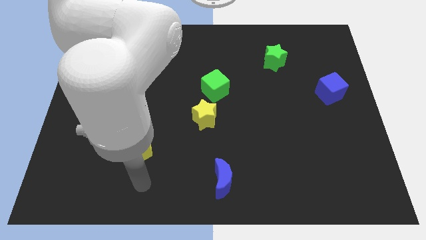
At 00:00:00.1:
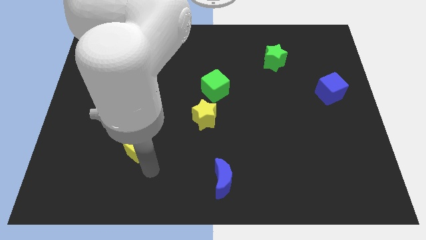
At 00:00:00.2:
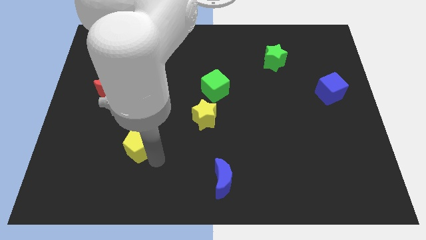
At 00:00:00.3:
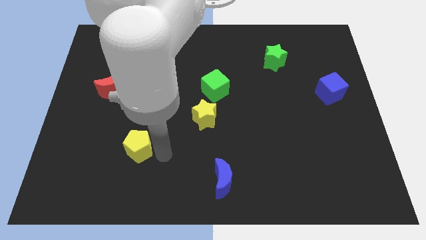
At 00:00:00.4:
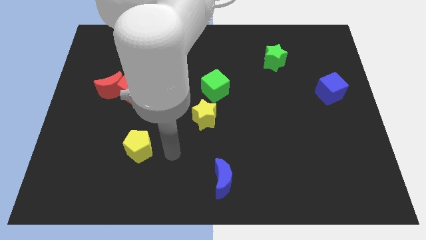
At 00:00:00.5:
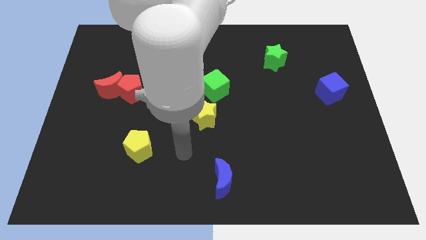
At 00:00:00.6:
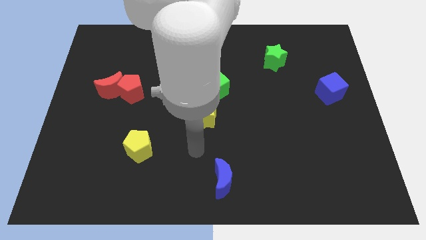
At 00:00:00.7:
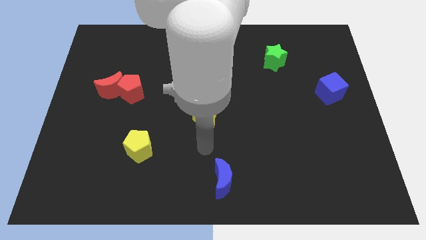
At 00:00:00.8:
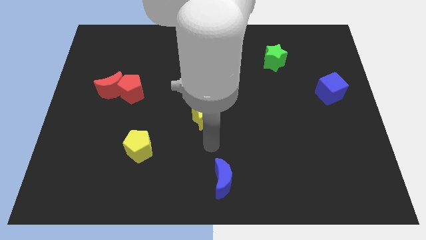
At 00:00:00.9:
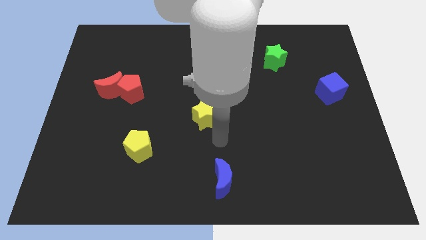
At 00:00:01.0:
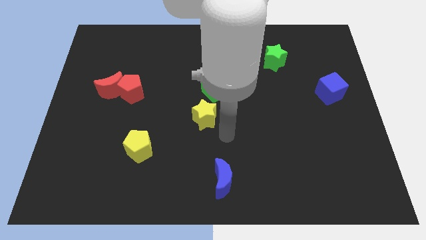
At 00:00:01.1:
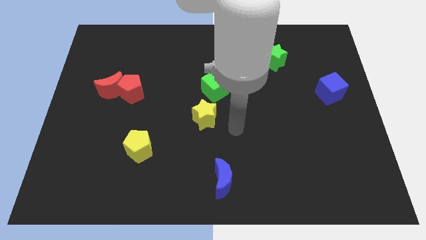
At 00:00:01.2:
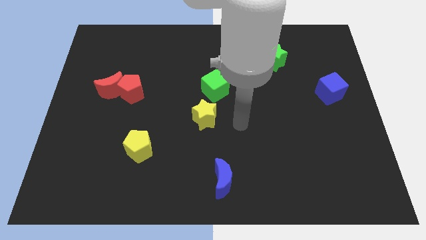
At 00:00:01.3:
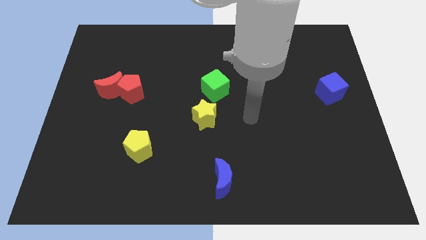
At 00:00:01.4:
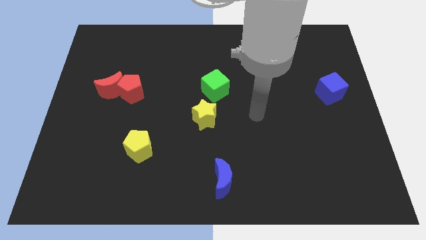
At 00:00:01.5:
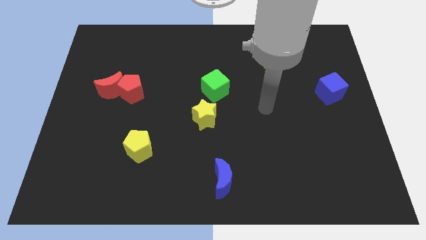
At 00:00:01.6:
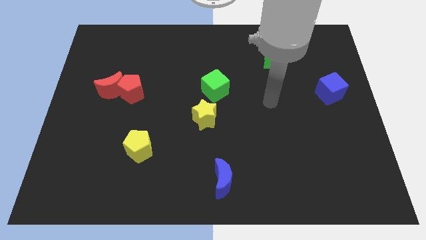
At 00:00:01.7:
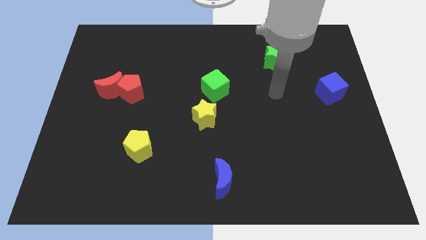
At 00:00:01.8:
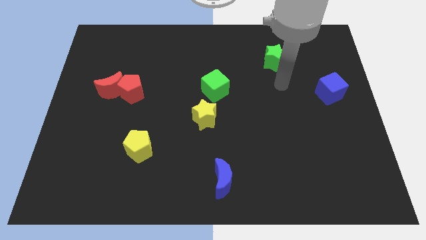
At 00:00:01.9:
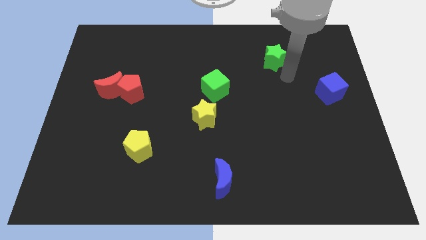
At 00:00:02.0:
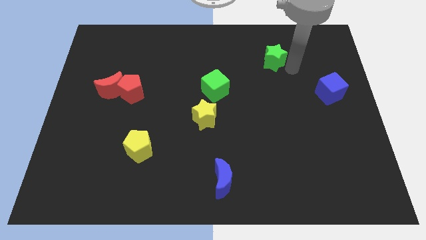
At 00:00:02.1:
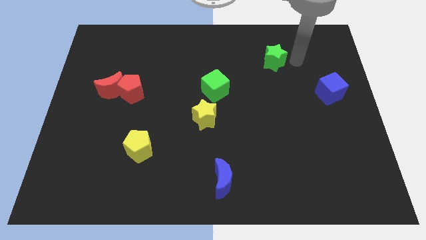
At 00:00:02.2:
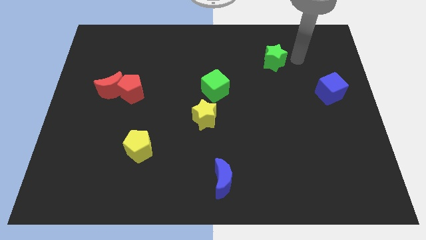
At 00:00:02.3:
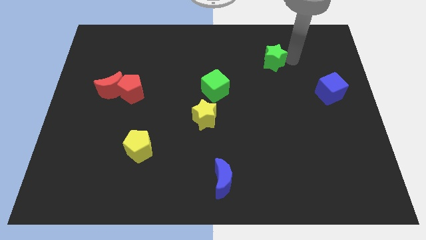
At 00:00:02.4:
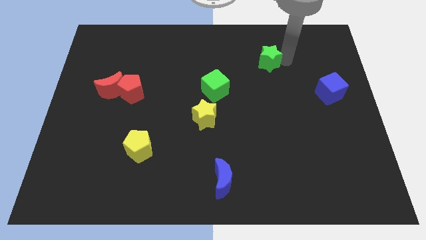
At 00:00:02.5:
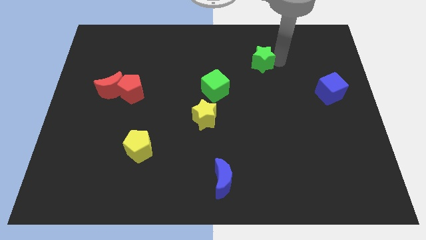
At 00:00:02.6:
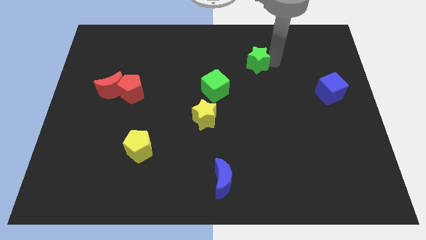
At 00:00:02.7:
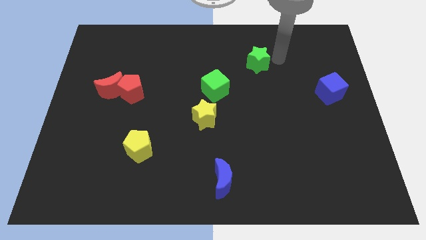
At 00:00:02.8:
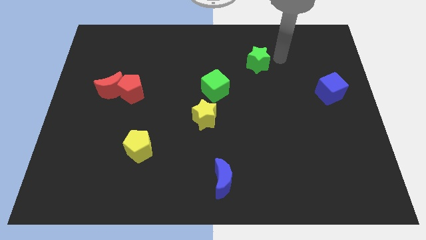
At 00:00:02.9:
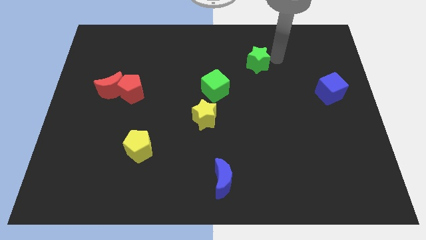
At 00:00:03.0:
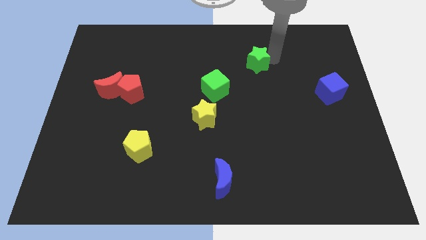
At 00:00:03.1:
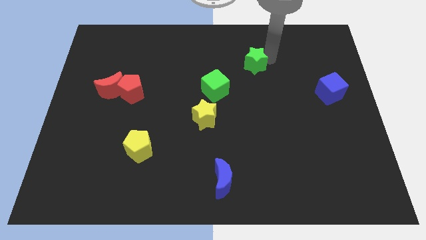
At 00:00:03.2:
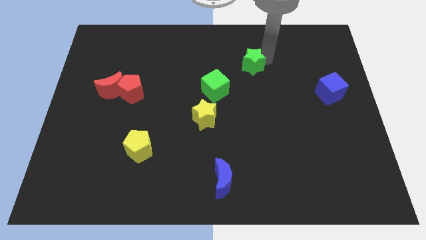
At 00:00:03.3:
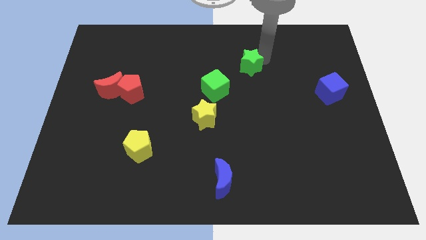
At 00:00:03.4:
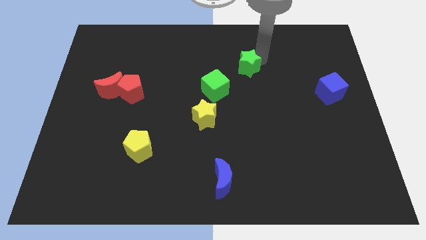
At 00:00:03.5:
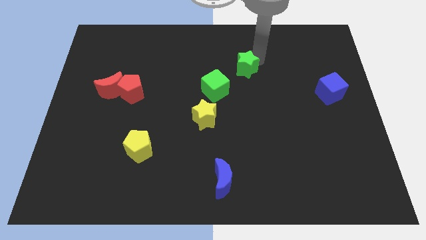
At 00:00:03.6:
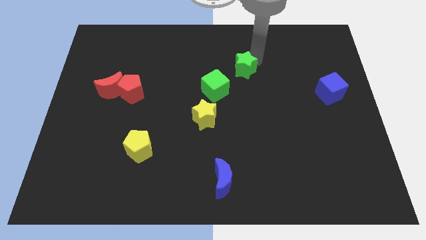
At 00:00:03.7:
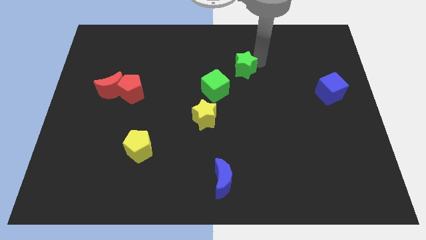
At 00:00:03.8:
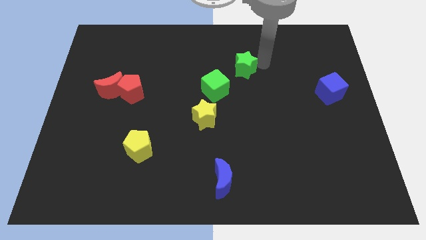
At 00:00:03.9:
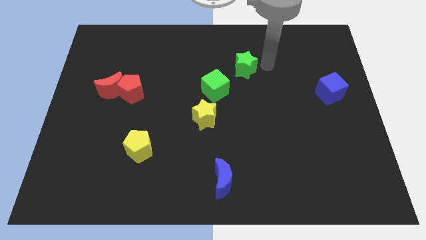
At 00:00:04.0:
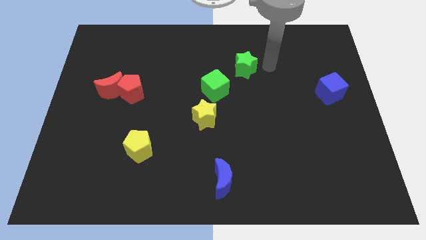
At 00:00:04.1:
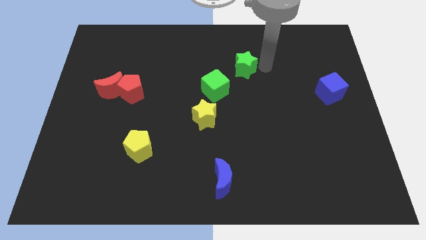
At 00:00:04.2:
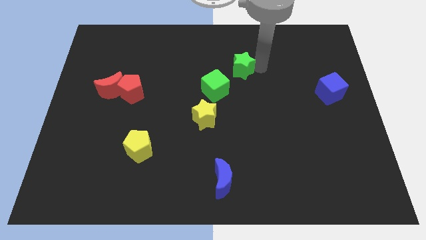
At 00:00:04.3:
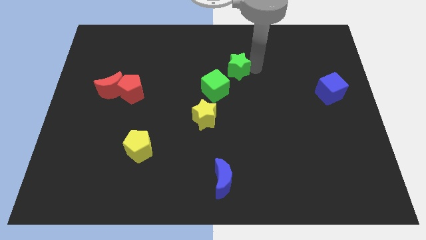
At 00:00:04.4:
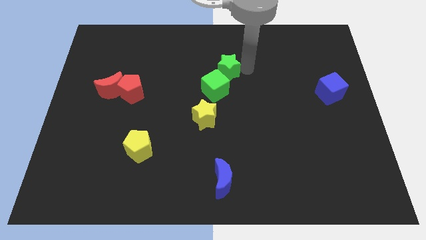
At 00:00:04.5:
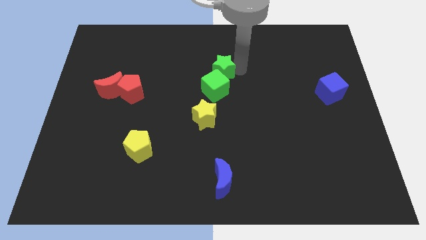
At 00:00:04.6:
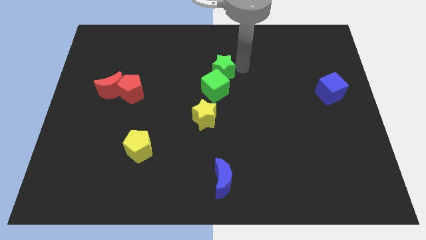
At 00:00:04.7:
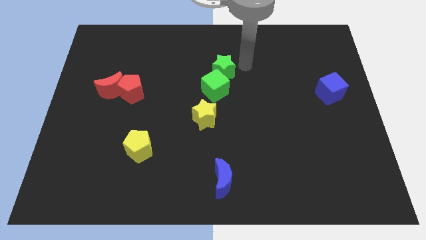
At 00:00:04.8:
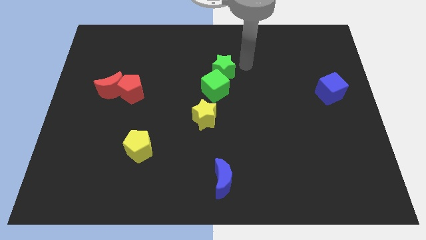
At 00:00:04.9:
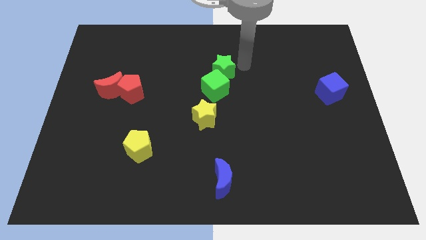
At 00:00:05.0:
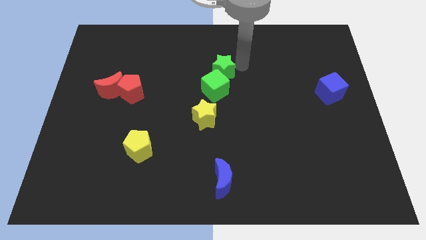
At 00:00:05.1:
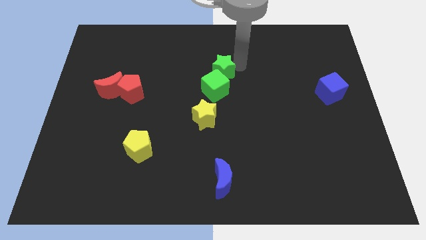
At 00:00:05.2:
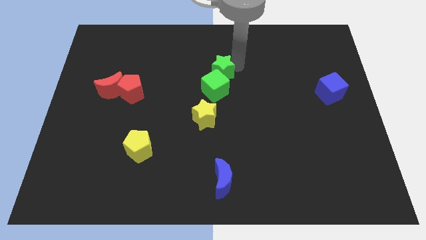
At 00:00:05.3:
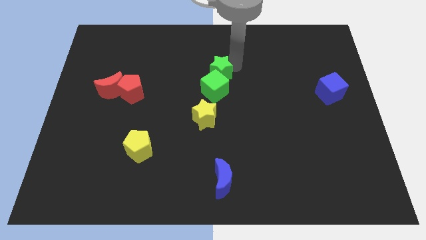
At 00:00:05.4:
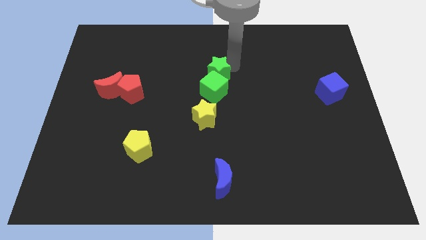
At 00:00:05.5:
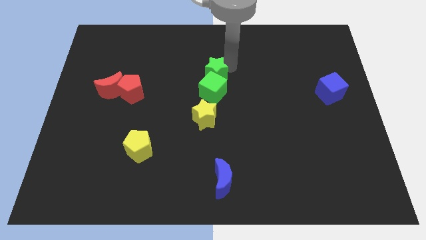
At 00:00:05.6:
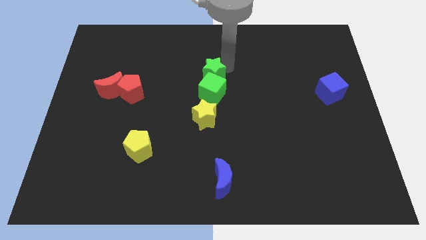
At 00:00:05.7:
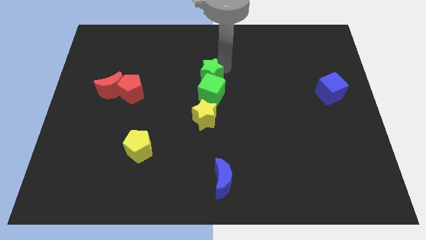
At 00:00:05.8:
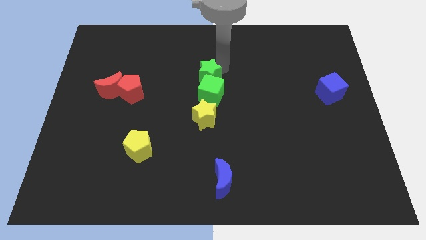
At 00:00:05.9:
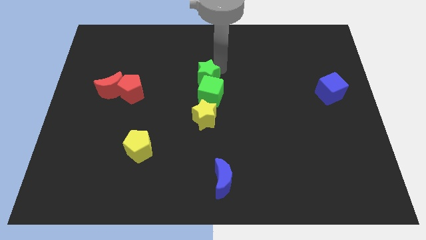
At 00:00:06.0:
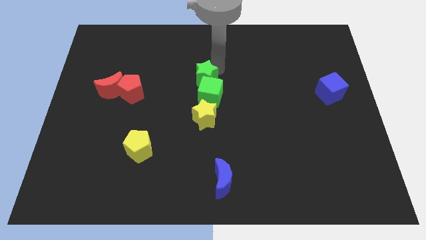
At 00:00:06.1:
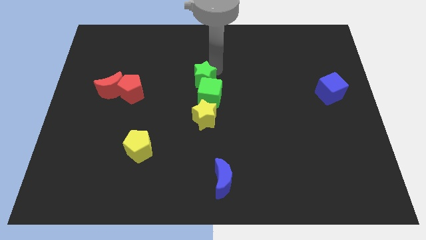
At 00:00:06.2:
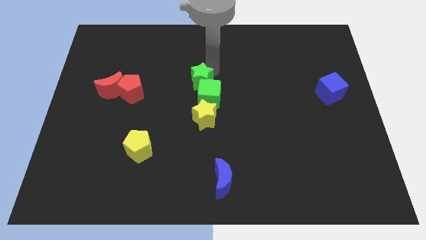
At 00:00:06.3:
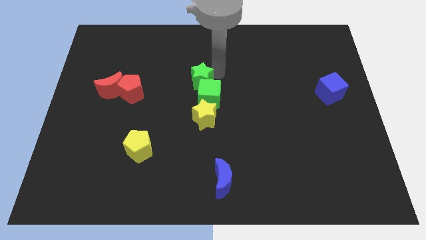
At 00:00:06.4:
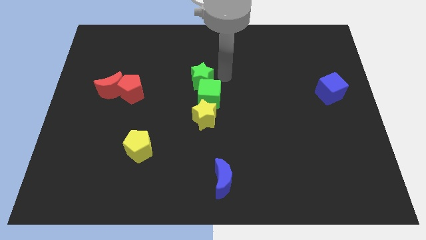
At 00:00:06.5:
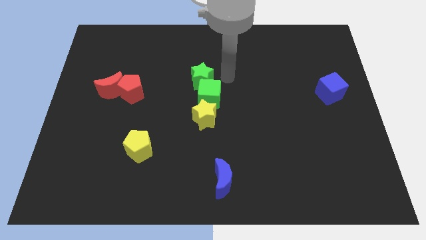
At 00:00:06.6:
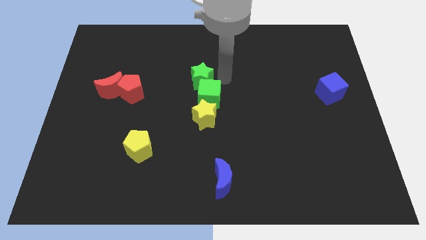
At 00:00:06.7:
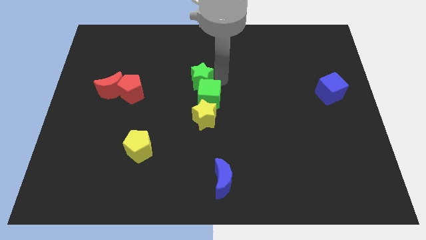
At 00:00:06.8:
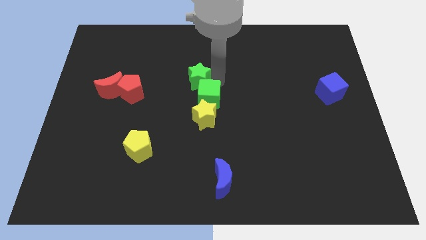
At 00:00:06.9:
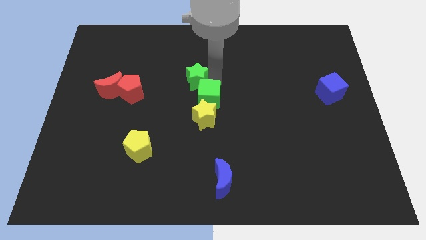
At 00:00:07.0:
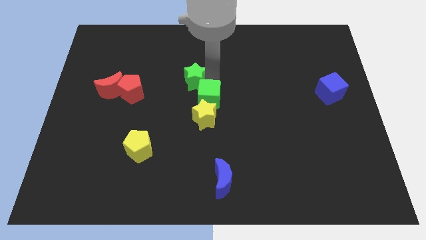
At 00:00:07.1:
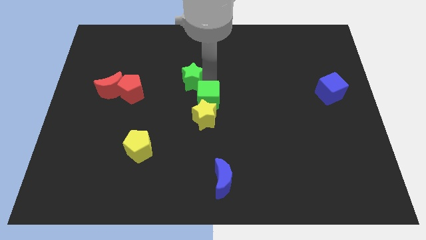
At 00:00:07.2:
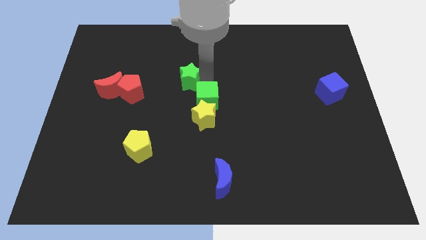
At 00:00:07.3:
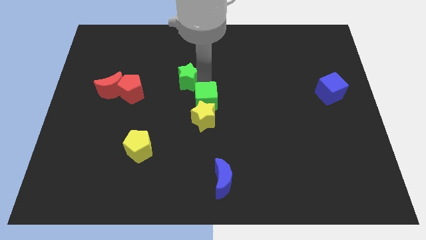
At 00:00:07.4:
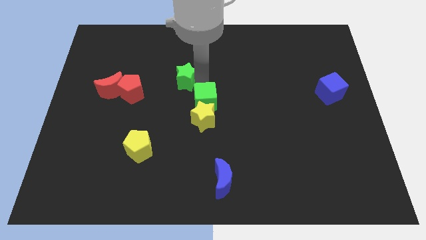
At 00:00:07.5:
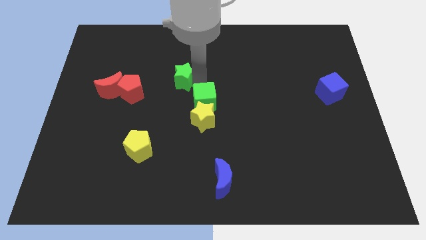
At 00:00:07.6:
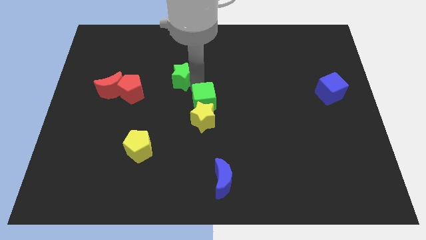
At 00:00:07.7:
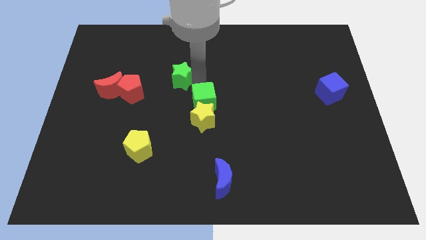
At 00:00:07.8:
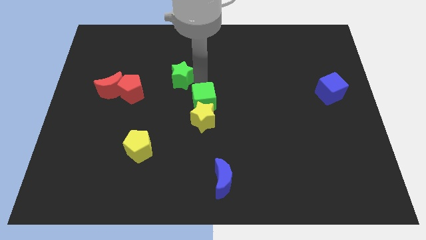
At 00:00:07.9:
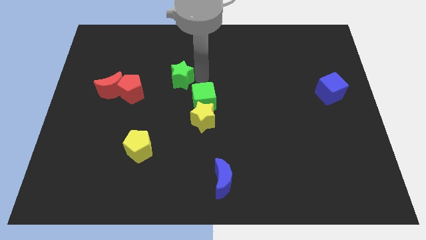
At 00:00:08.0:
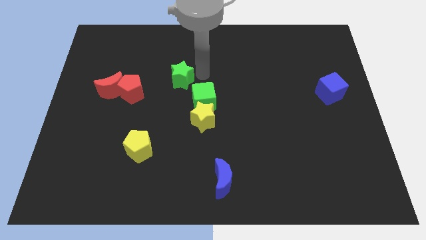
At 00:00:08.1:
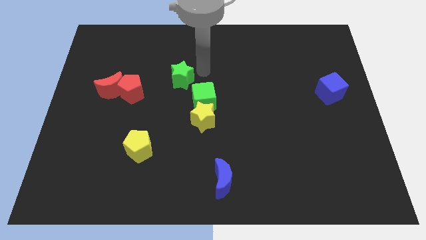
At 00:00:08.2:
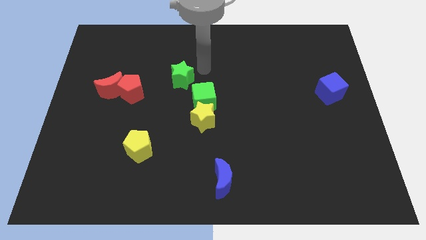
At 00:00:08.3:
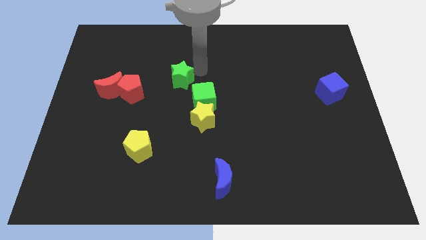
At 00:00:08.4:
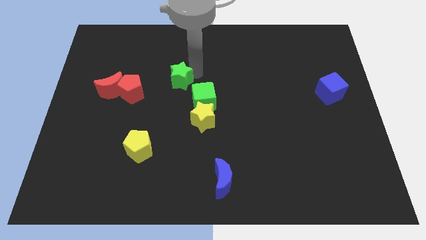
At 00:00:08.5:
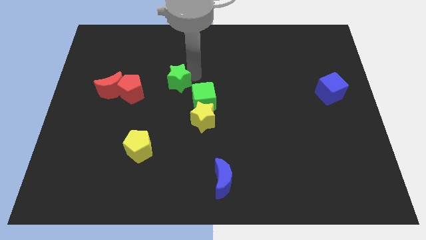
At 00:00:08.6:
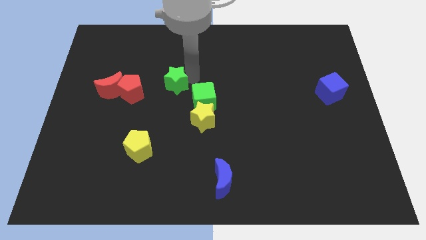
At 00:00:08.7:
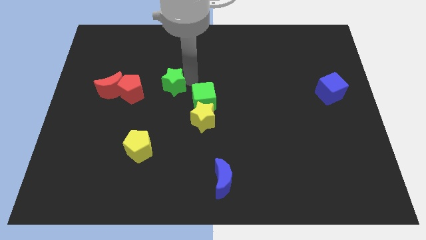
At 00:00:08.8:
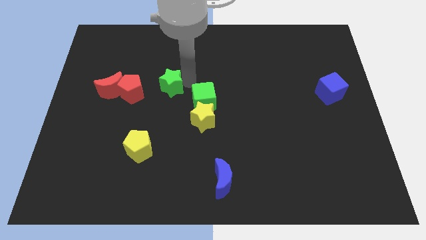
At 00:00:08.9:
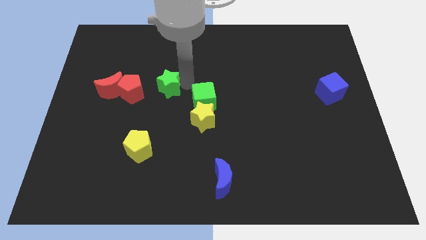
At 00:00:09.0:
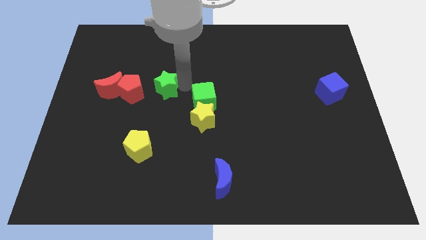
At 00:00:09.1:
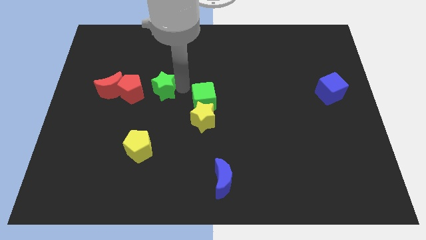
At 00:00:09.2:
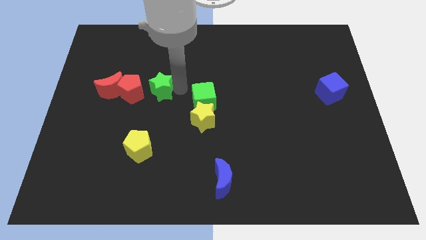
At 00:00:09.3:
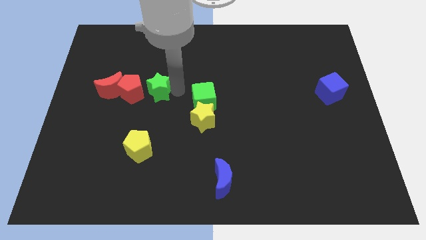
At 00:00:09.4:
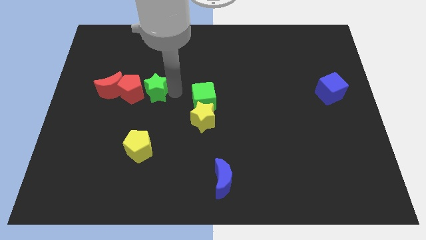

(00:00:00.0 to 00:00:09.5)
push the green star next to the red pentagon
